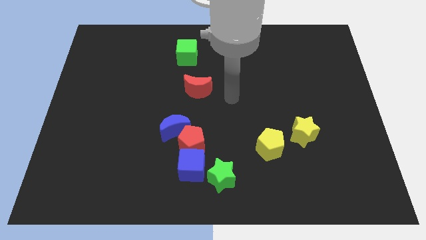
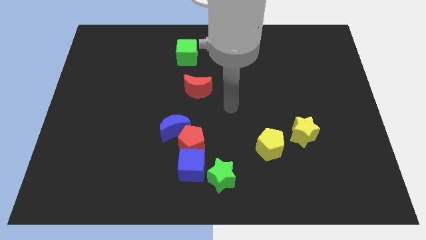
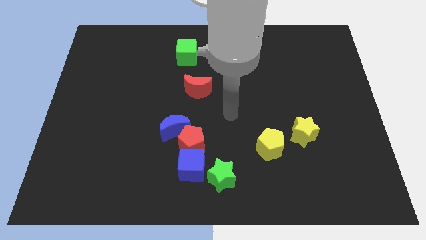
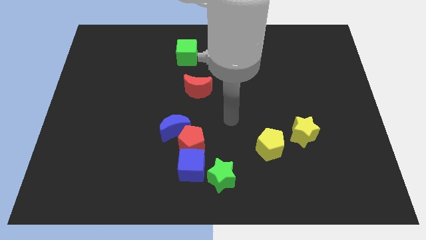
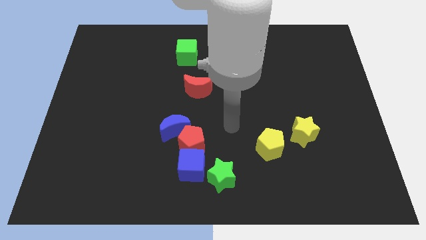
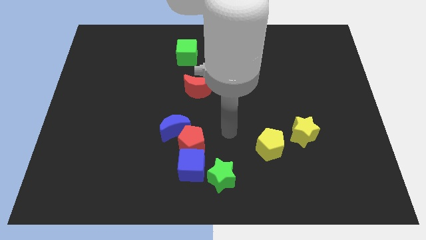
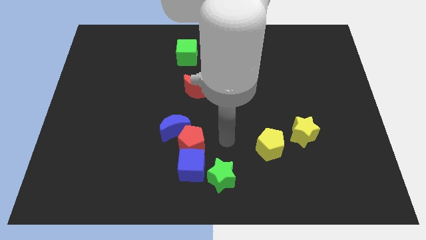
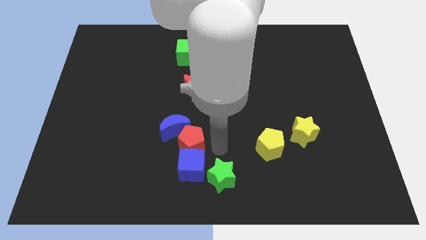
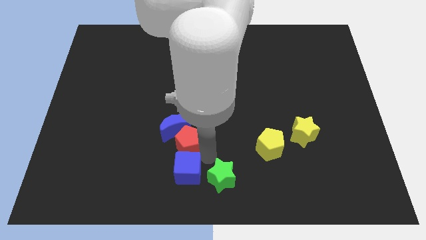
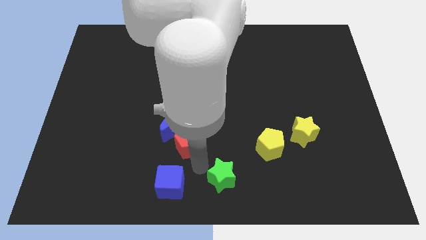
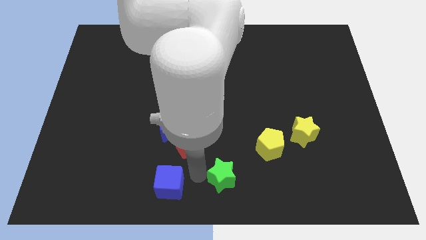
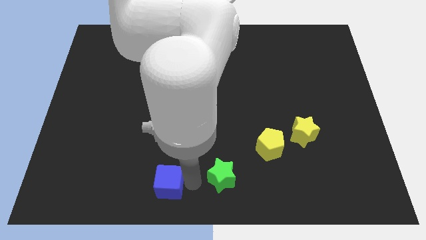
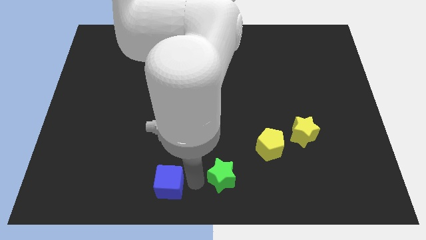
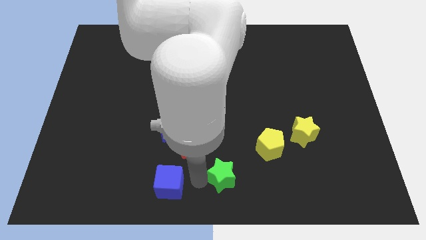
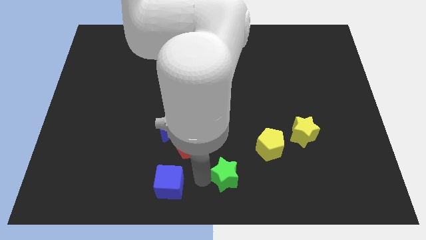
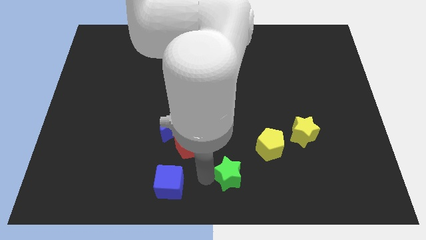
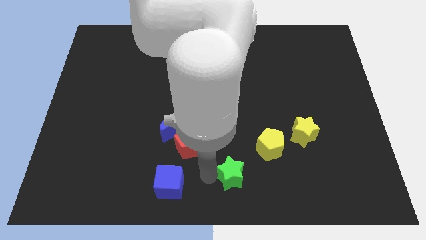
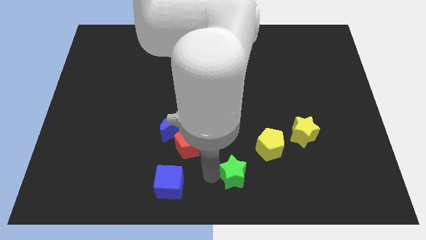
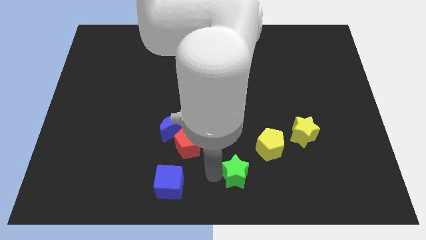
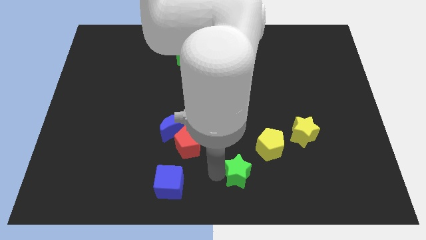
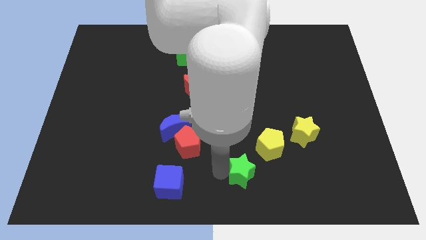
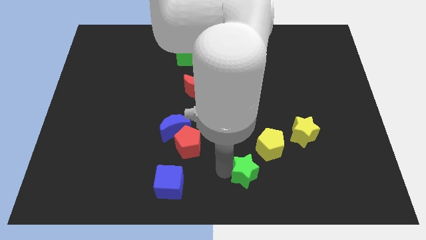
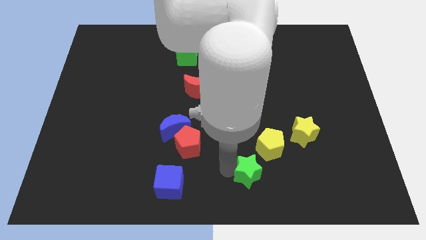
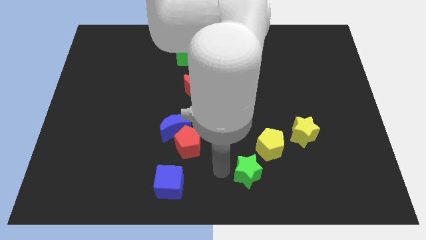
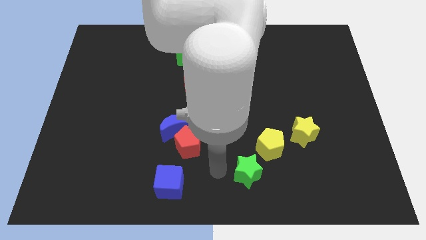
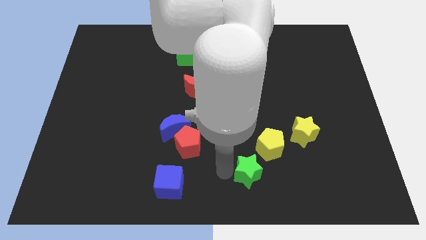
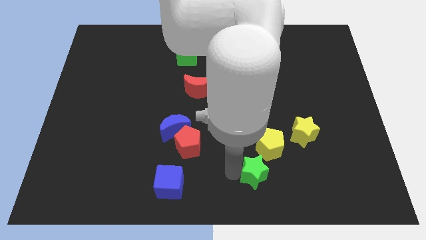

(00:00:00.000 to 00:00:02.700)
slightly move the green star to the right

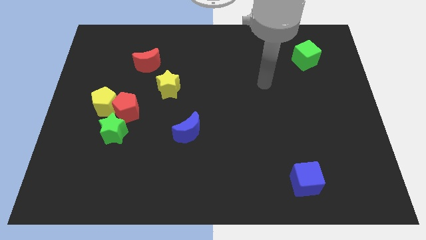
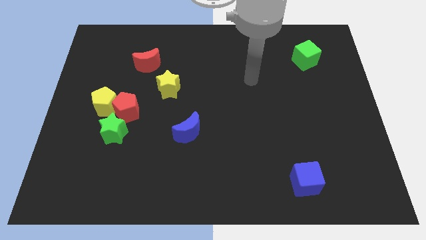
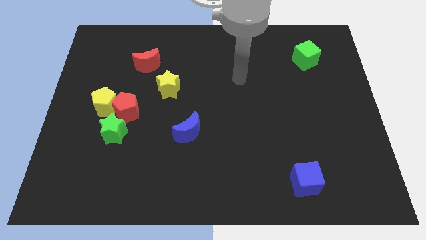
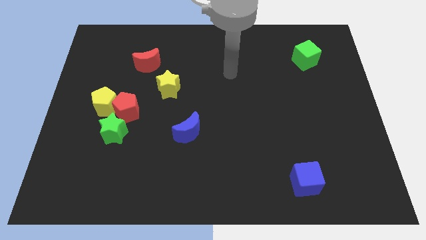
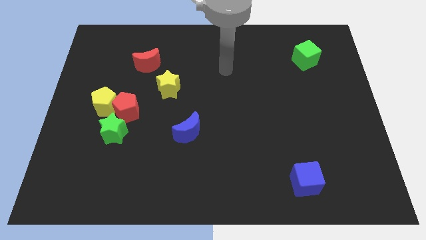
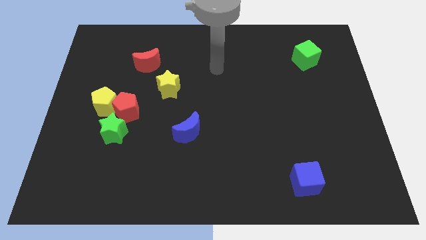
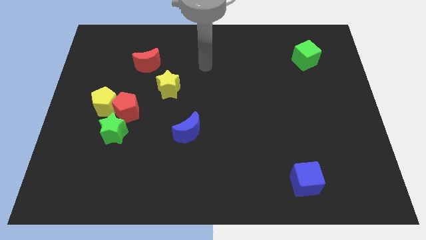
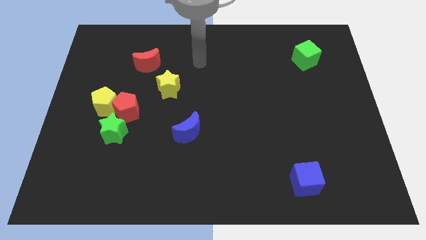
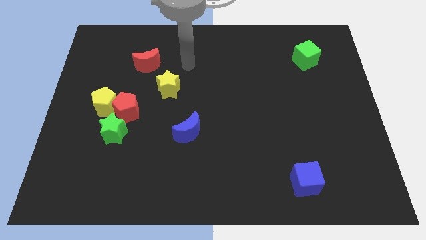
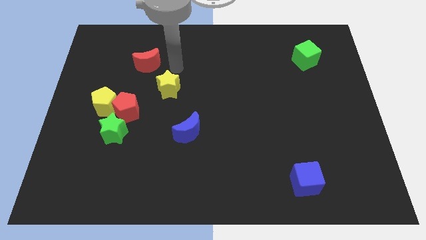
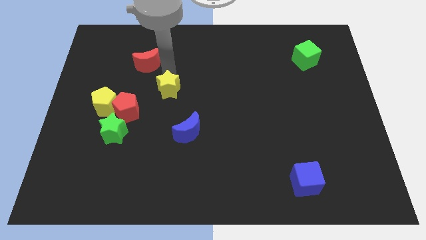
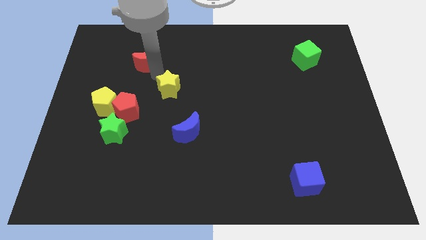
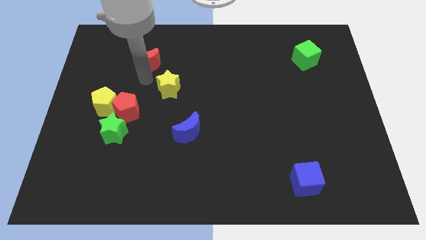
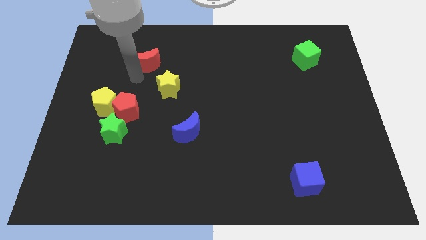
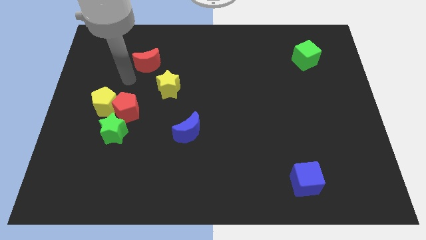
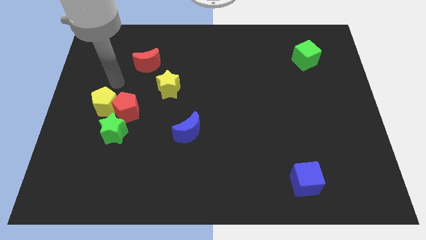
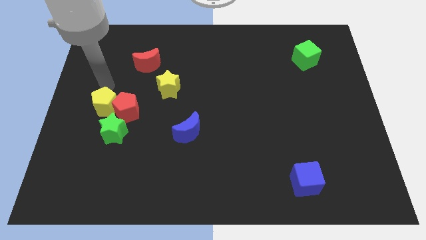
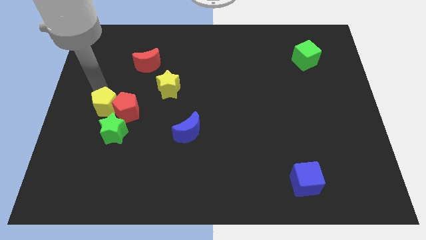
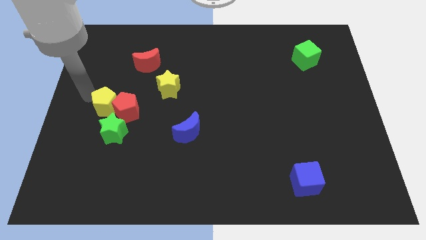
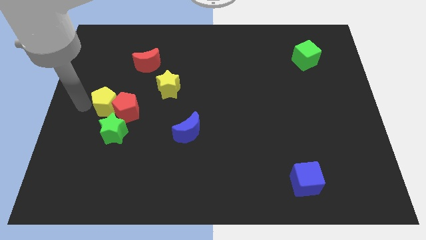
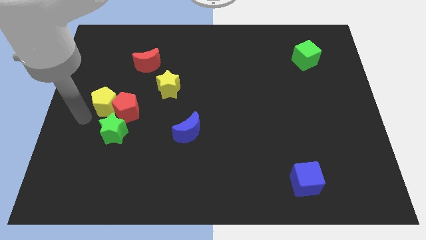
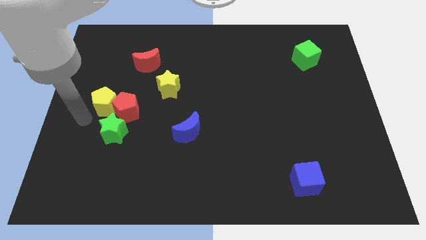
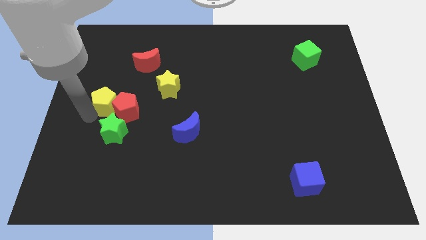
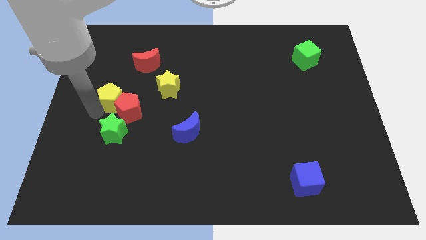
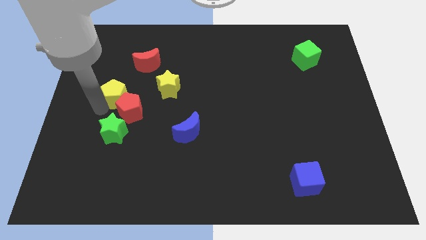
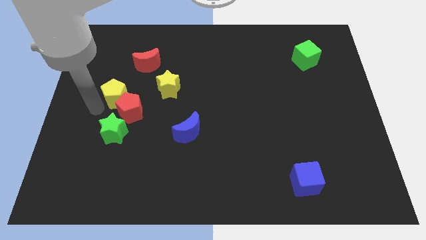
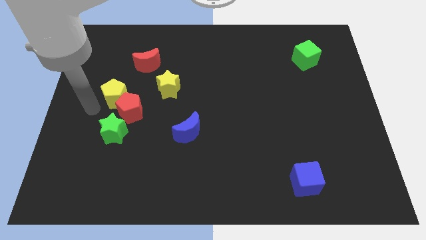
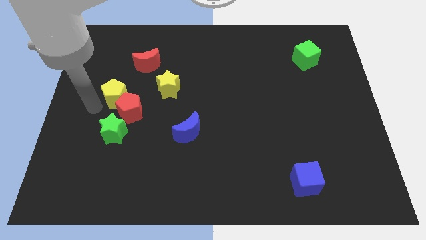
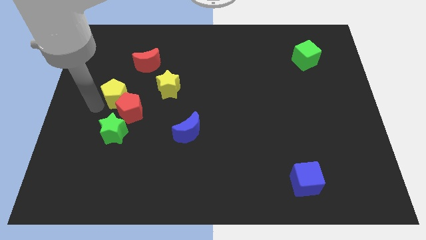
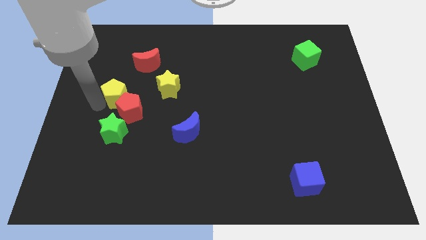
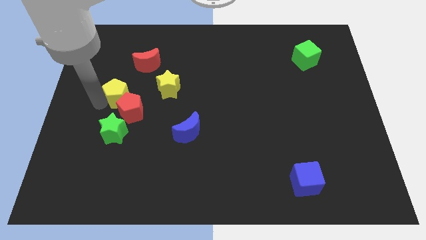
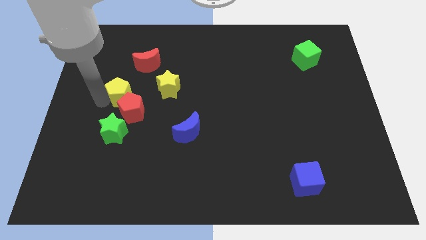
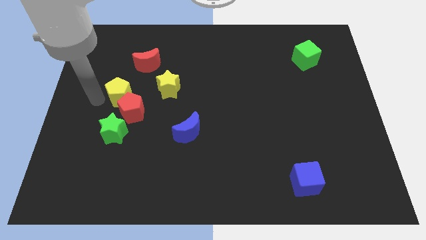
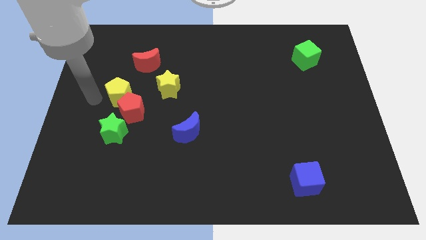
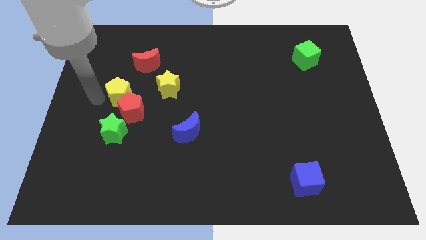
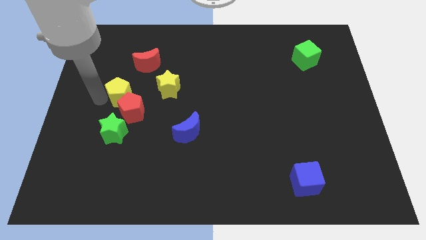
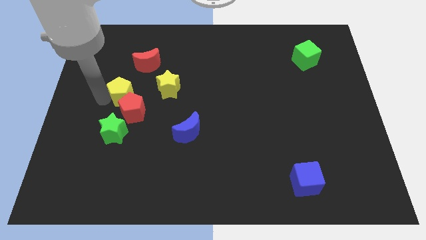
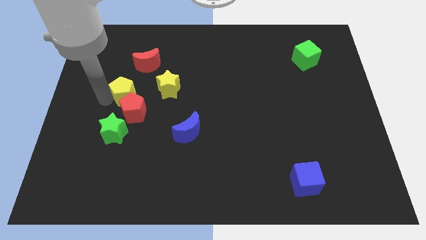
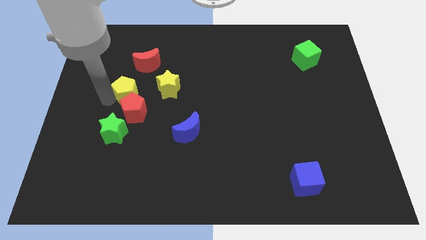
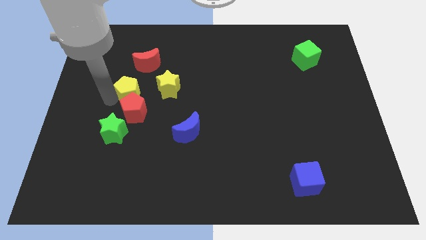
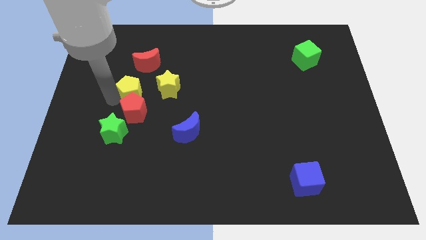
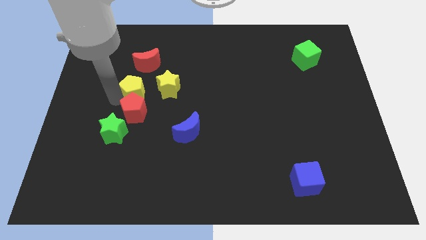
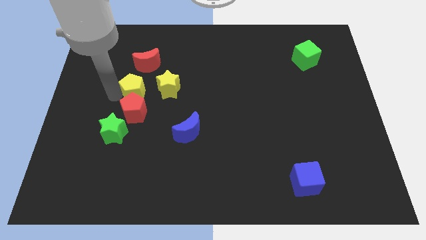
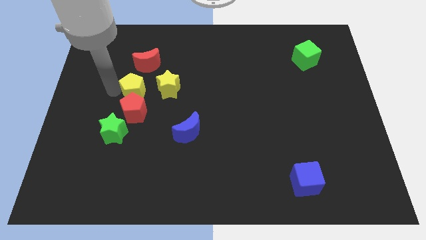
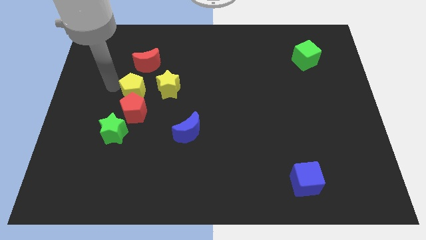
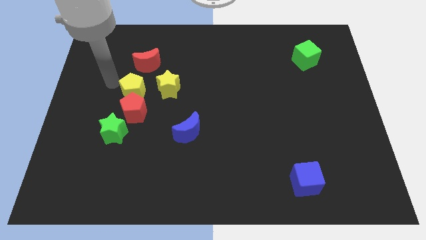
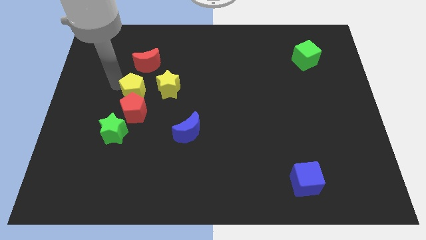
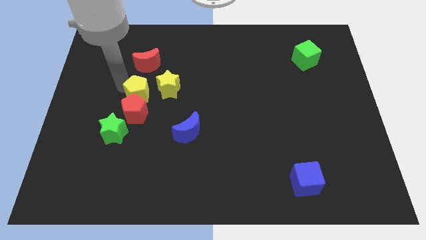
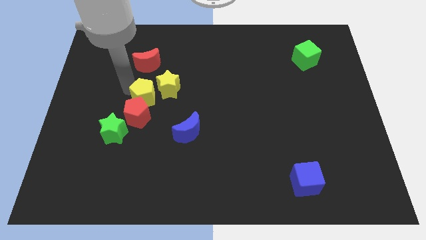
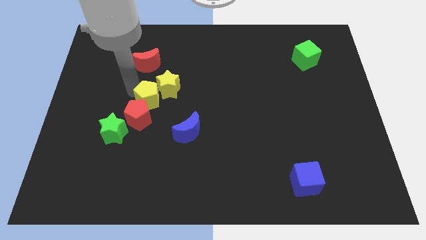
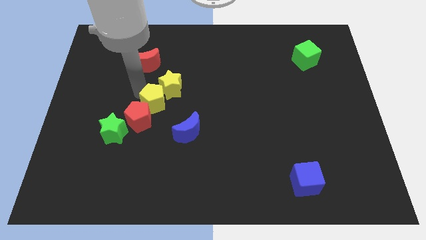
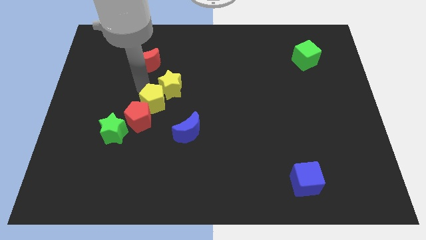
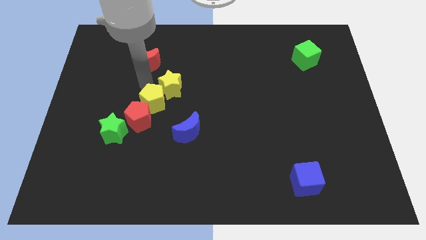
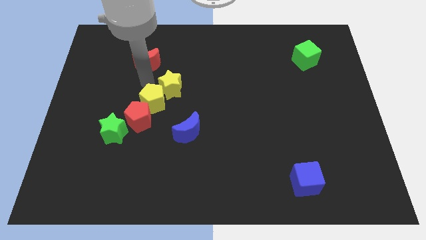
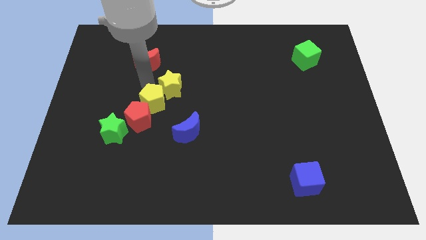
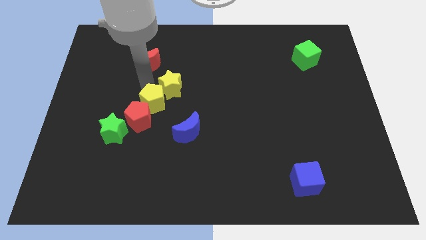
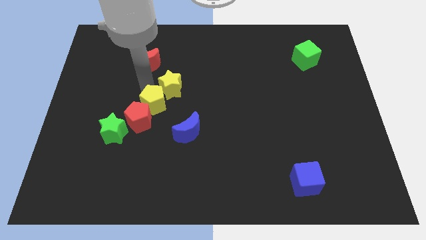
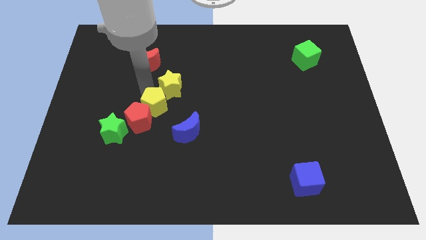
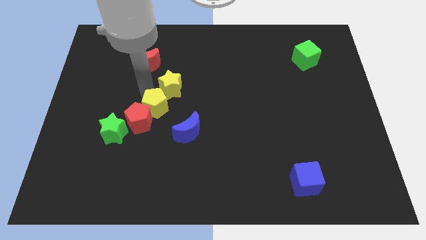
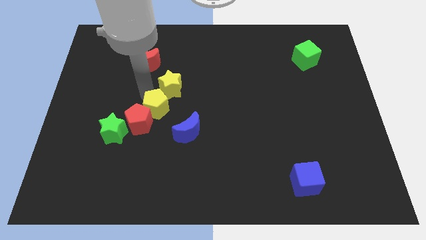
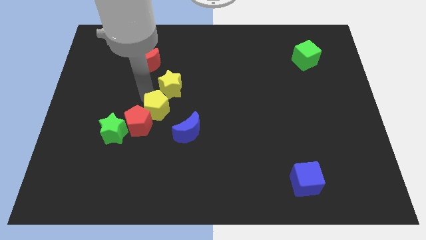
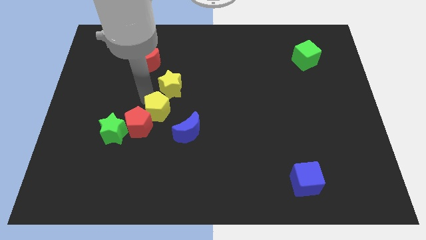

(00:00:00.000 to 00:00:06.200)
slightly move the yellow pentagon downwards and then to the right

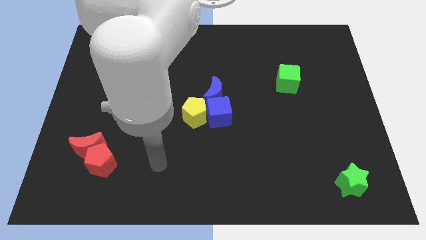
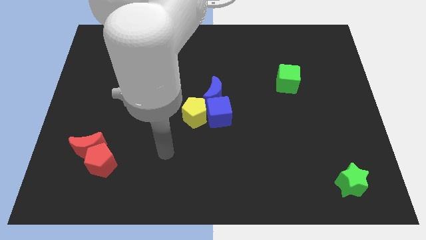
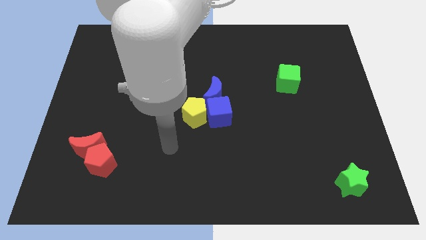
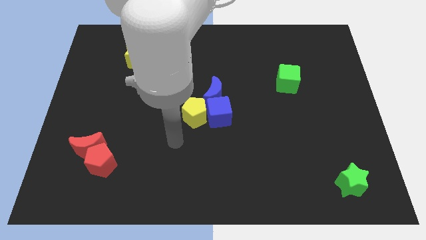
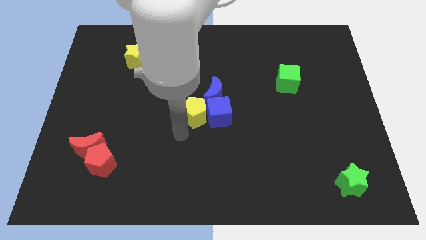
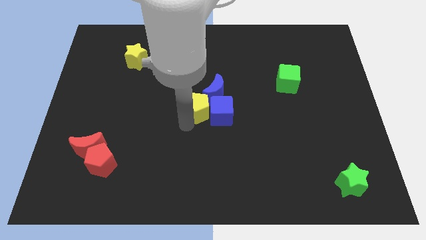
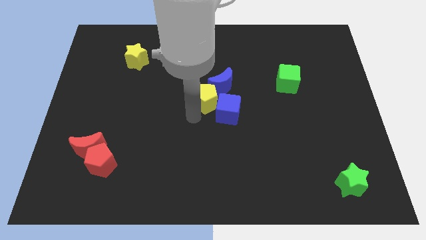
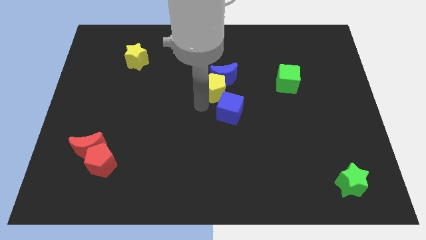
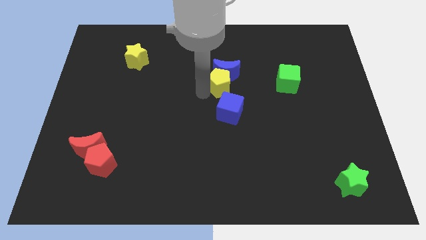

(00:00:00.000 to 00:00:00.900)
push the blue moon up and then to the right slightly
